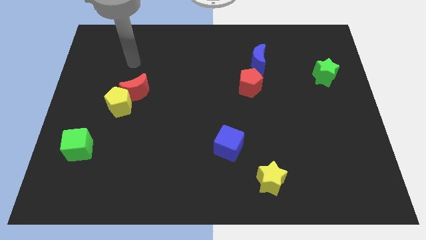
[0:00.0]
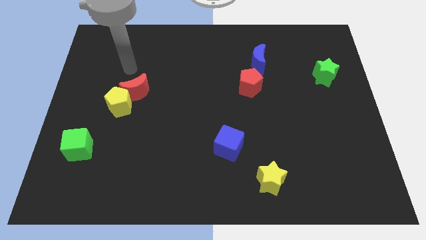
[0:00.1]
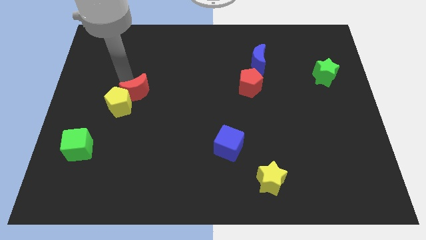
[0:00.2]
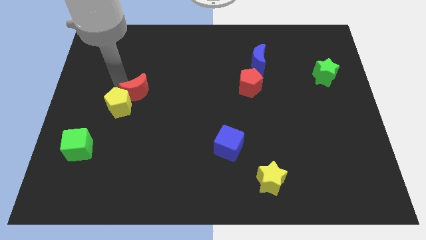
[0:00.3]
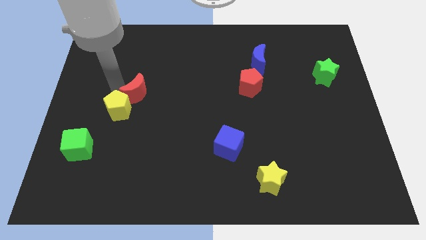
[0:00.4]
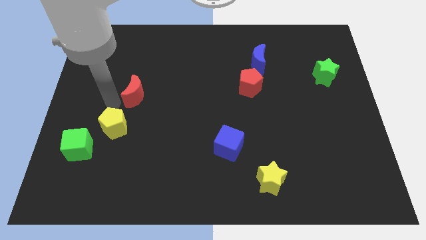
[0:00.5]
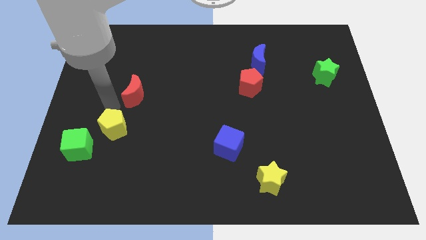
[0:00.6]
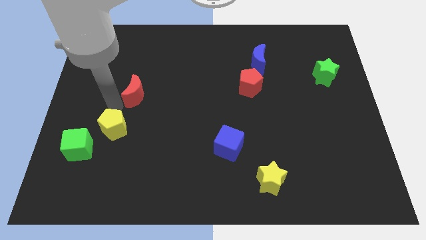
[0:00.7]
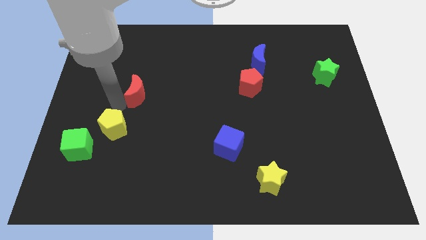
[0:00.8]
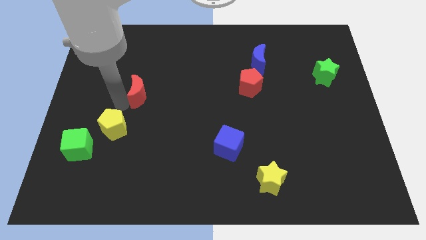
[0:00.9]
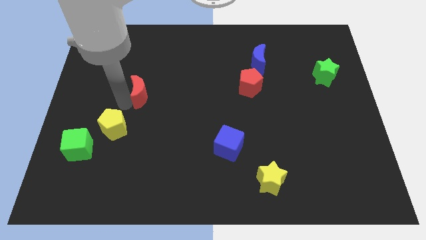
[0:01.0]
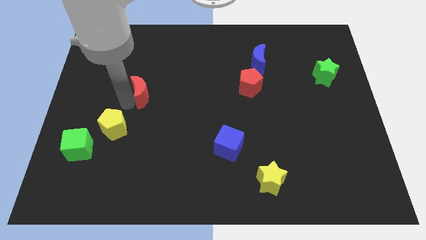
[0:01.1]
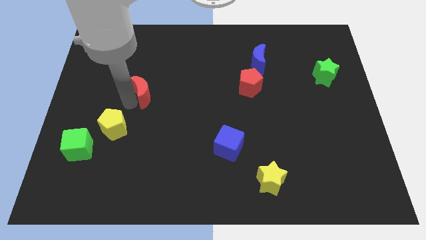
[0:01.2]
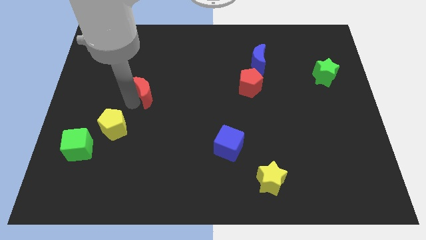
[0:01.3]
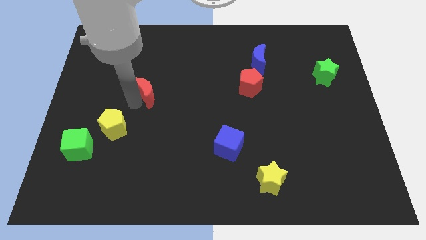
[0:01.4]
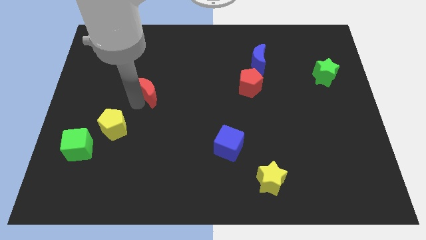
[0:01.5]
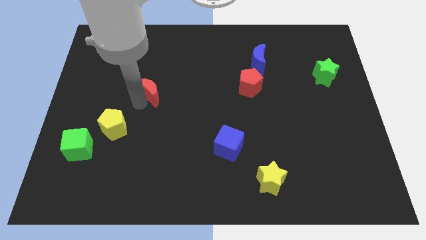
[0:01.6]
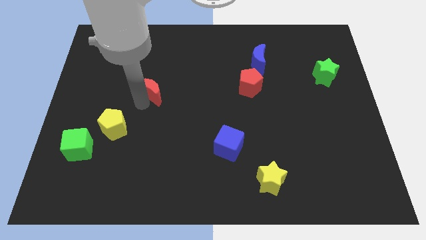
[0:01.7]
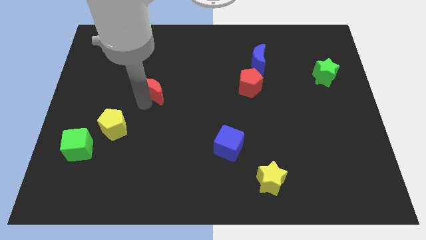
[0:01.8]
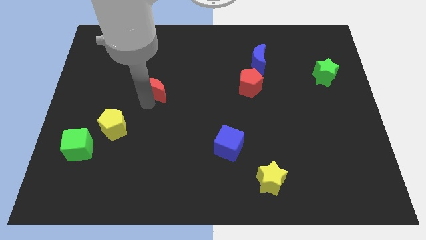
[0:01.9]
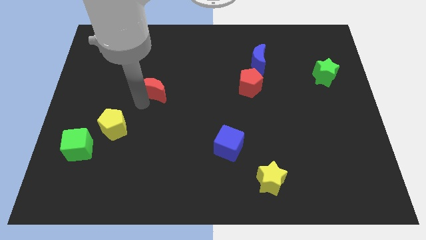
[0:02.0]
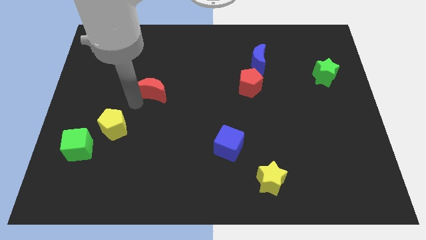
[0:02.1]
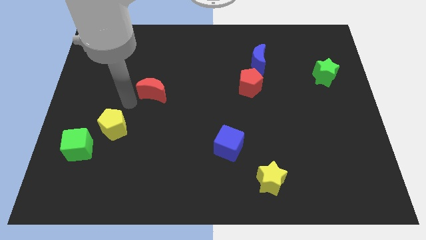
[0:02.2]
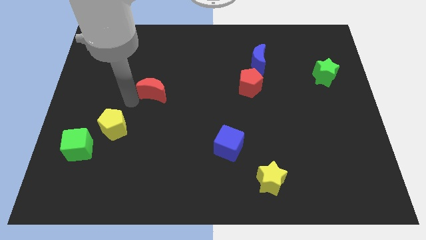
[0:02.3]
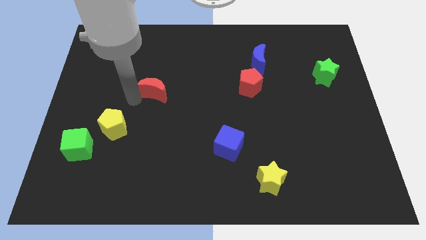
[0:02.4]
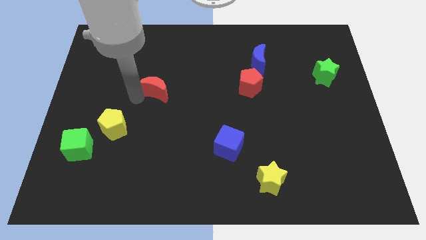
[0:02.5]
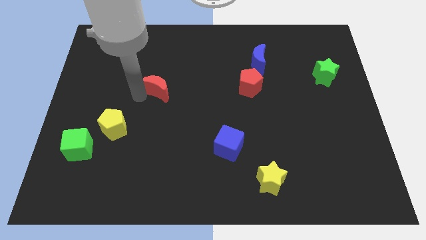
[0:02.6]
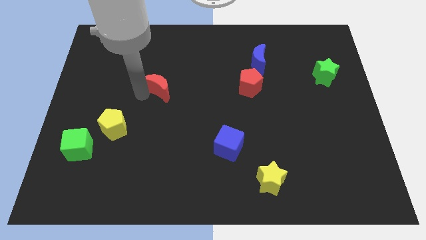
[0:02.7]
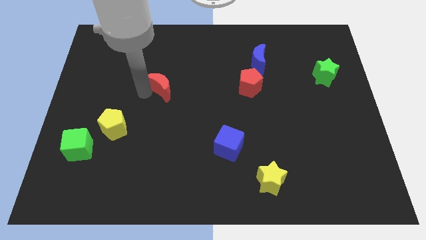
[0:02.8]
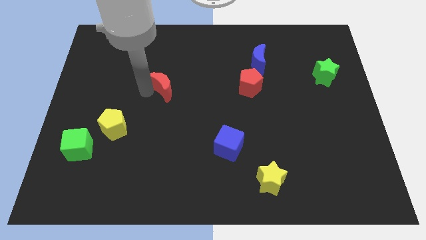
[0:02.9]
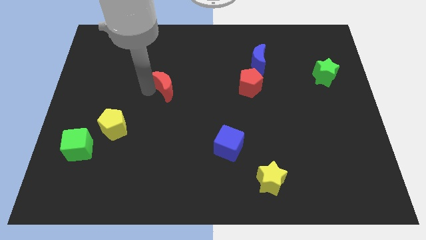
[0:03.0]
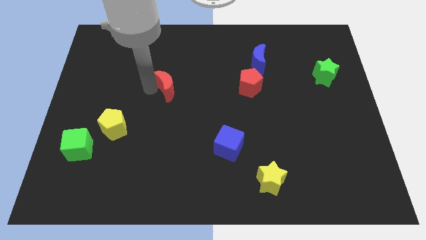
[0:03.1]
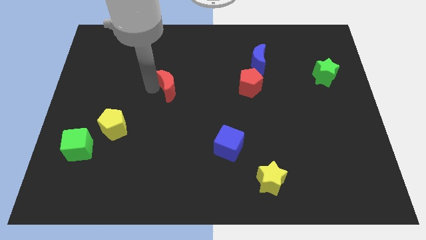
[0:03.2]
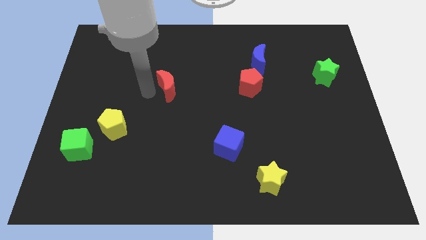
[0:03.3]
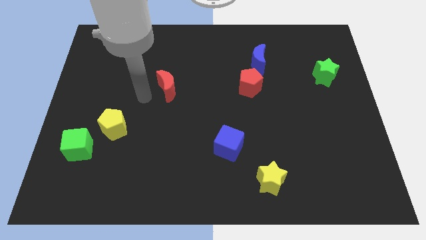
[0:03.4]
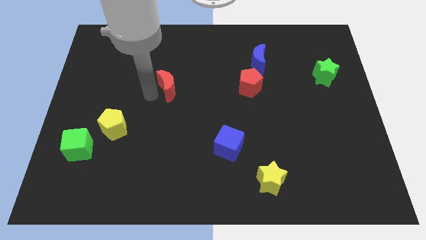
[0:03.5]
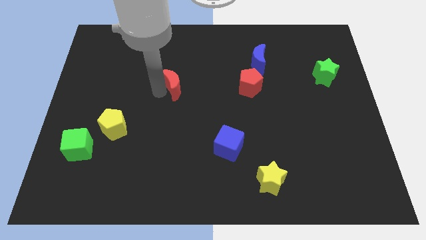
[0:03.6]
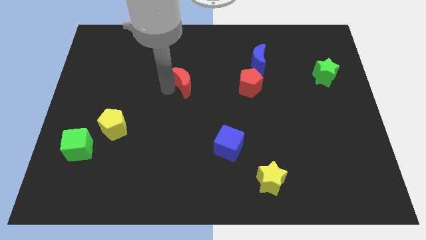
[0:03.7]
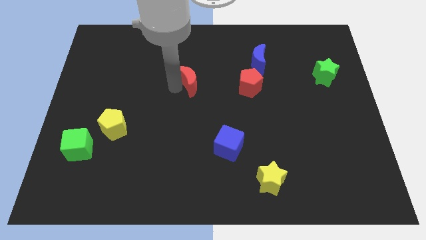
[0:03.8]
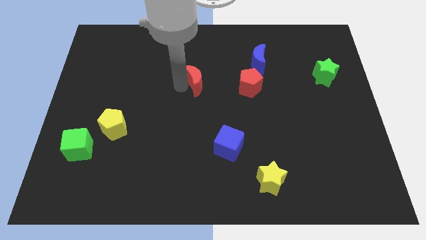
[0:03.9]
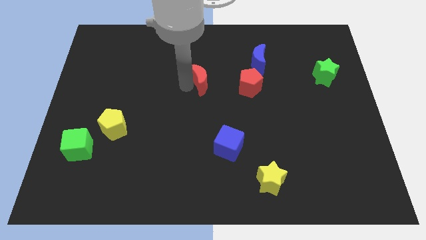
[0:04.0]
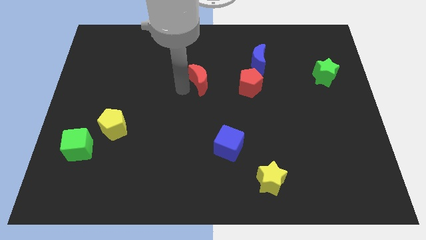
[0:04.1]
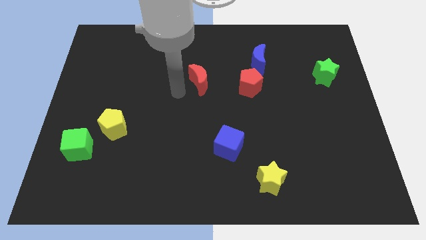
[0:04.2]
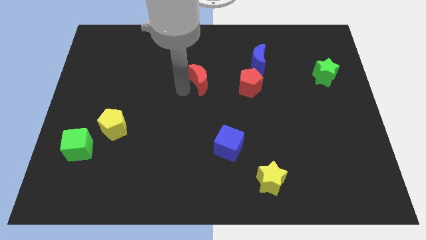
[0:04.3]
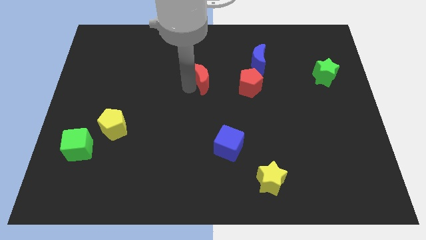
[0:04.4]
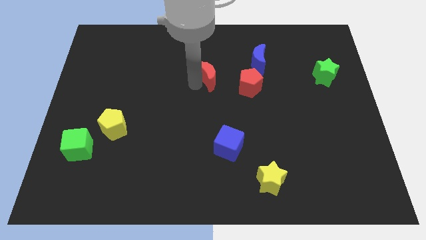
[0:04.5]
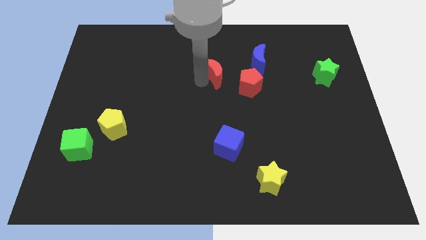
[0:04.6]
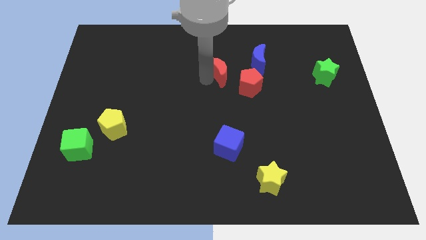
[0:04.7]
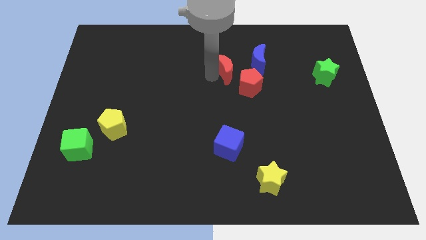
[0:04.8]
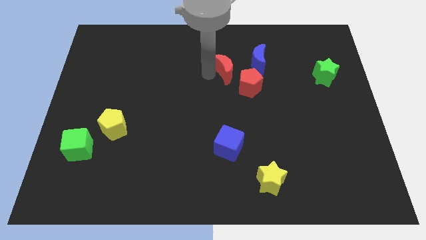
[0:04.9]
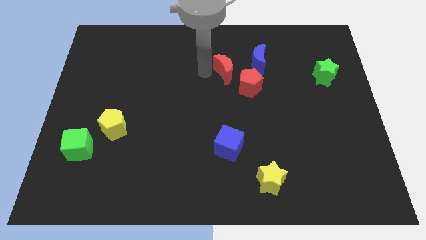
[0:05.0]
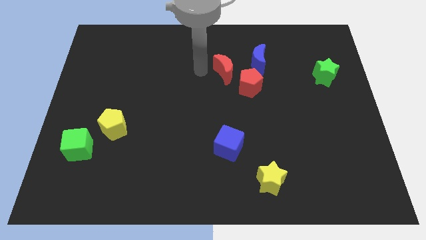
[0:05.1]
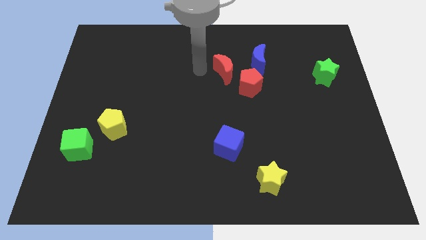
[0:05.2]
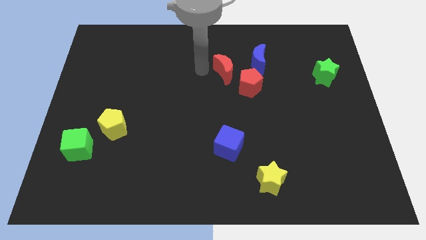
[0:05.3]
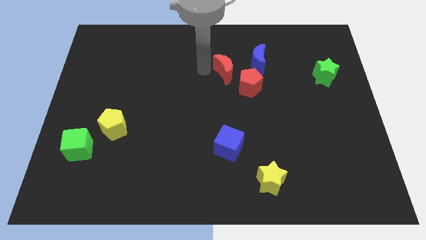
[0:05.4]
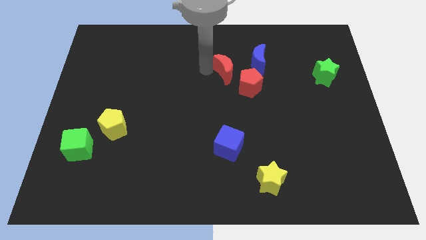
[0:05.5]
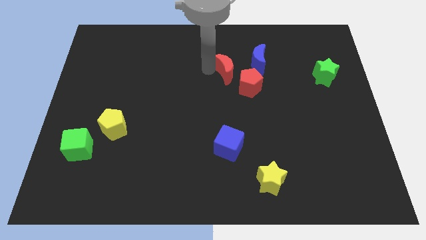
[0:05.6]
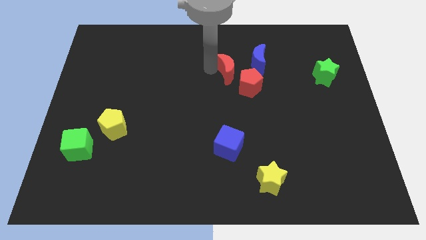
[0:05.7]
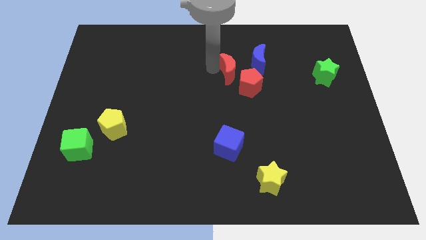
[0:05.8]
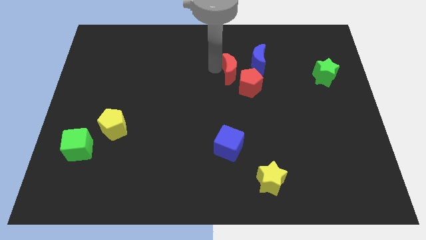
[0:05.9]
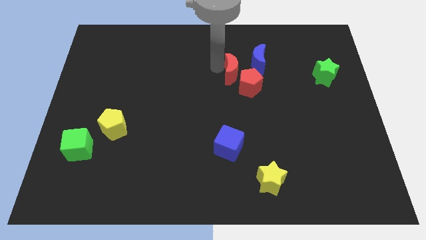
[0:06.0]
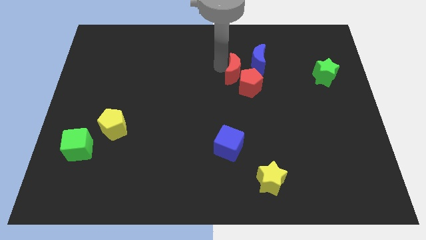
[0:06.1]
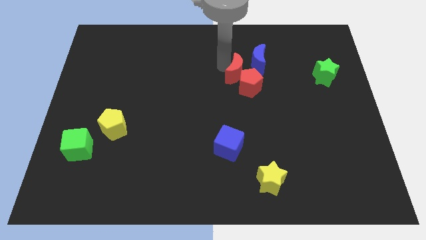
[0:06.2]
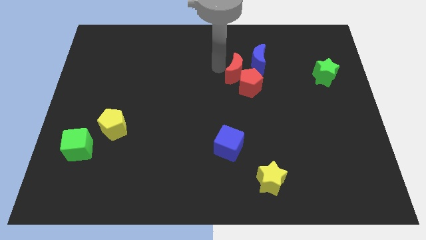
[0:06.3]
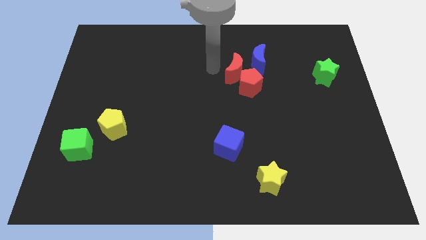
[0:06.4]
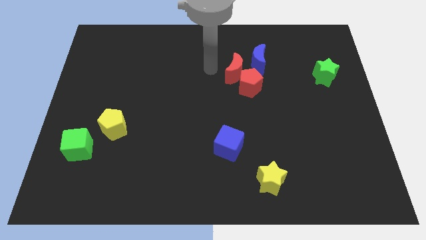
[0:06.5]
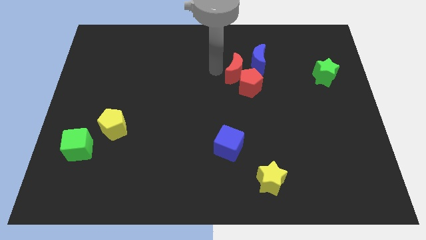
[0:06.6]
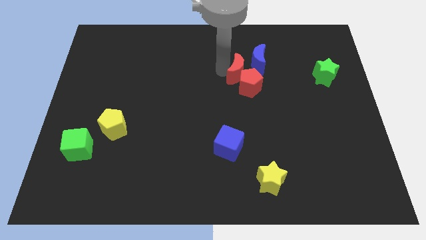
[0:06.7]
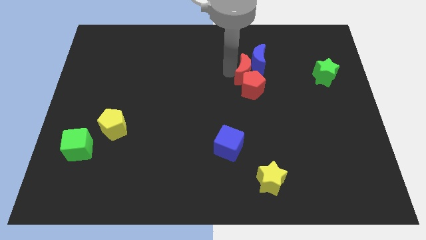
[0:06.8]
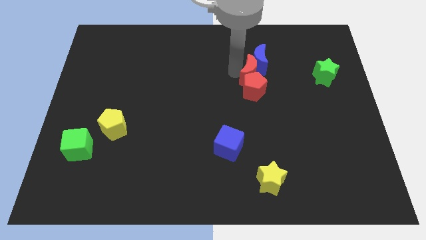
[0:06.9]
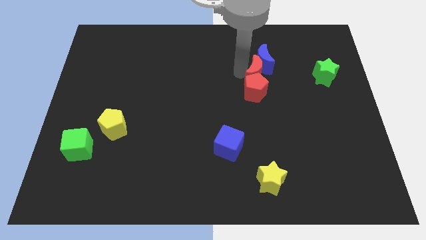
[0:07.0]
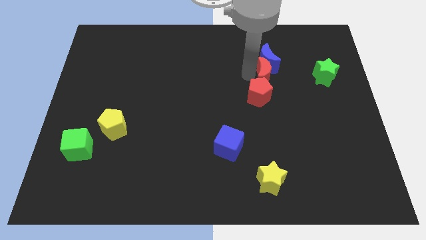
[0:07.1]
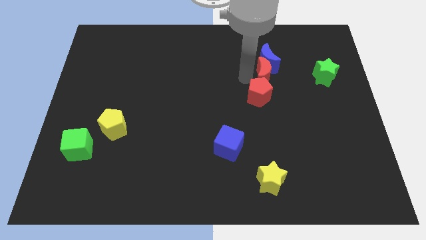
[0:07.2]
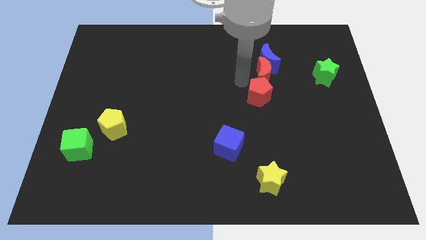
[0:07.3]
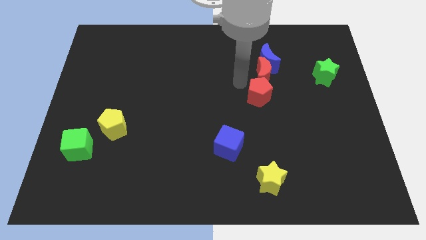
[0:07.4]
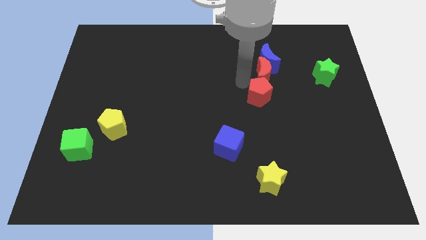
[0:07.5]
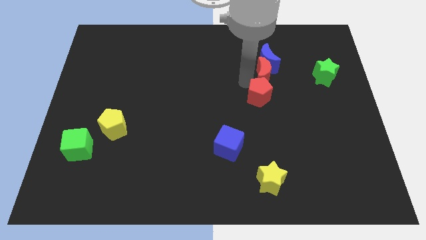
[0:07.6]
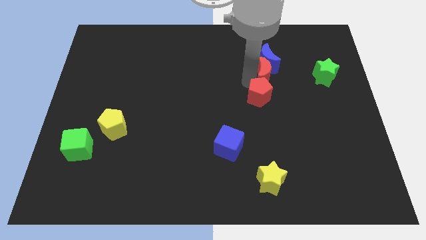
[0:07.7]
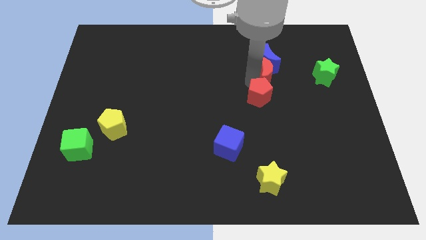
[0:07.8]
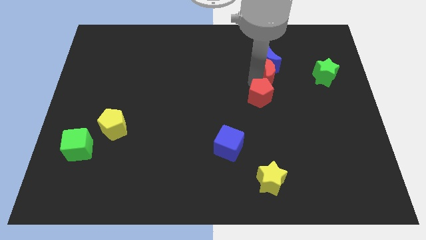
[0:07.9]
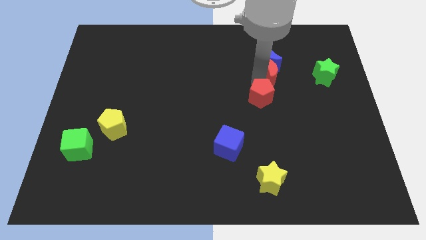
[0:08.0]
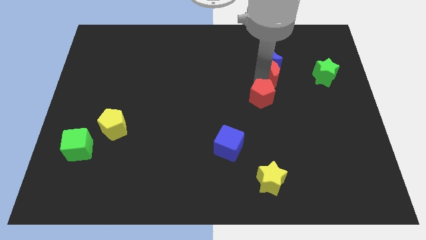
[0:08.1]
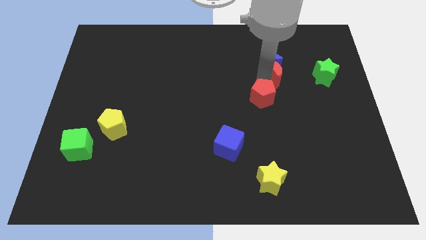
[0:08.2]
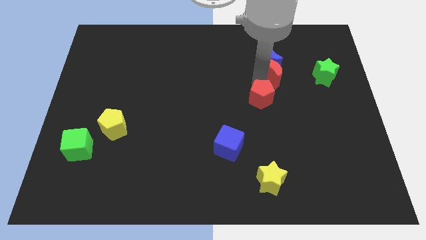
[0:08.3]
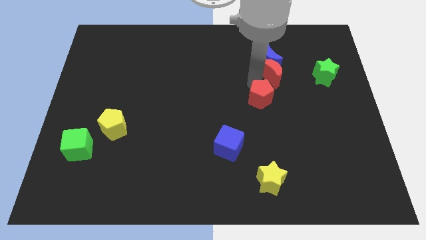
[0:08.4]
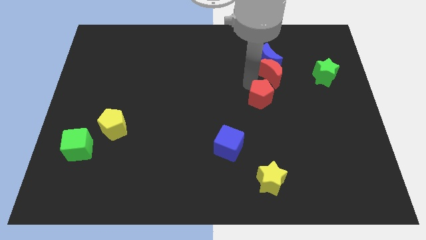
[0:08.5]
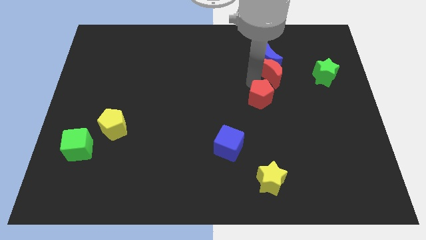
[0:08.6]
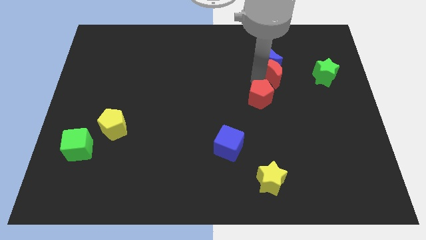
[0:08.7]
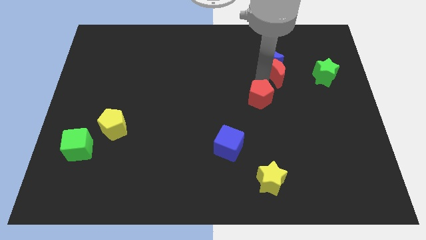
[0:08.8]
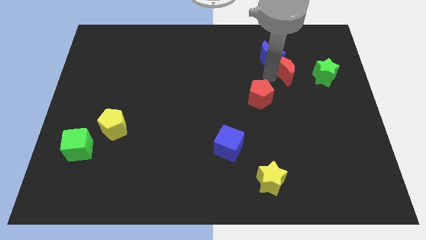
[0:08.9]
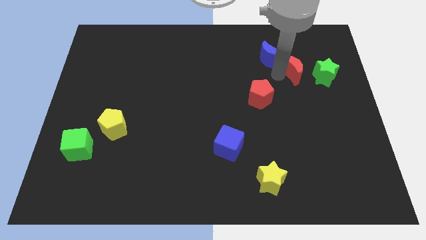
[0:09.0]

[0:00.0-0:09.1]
put the red moon just right of the blue moon
